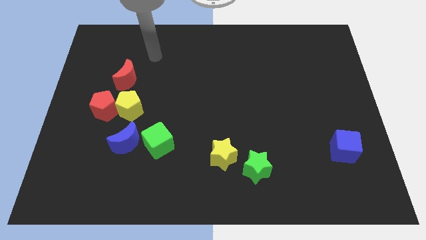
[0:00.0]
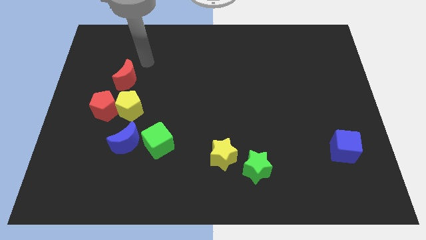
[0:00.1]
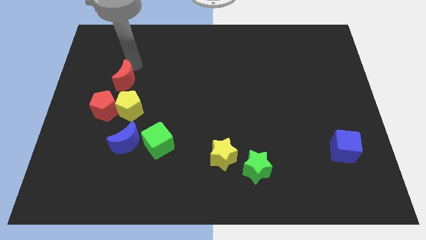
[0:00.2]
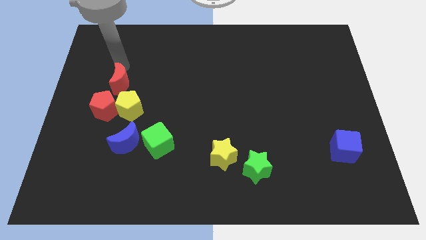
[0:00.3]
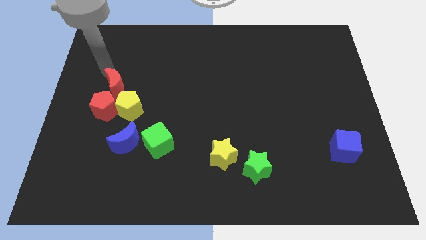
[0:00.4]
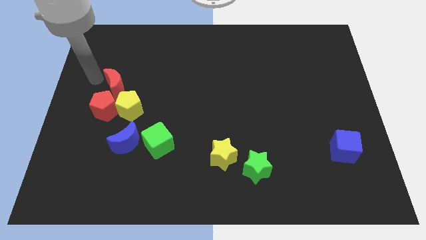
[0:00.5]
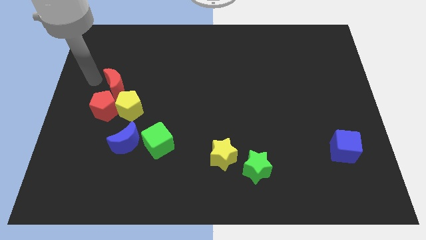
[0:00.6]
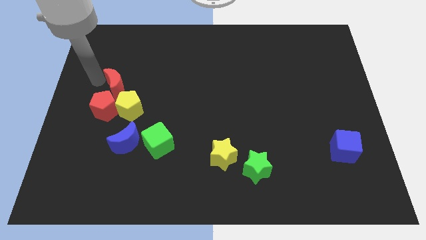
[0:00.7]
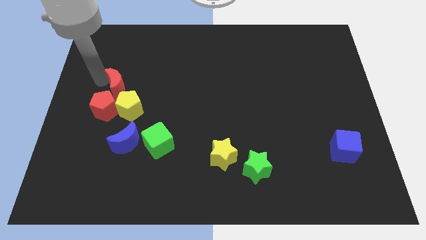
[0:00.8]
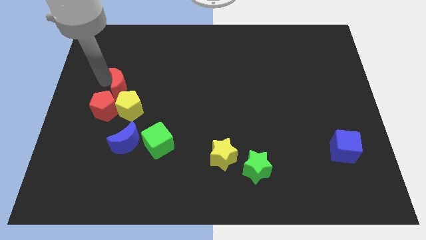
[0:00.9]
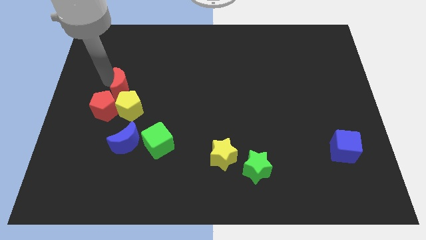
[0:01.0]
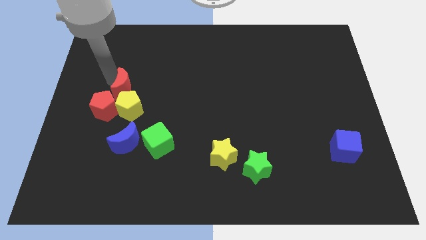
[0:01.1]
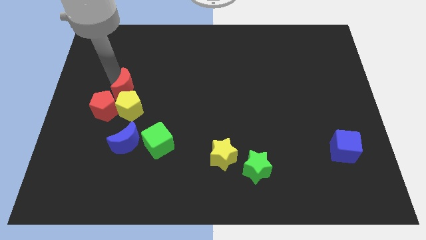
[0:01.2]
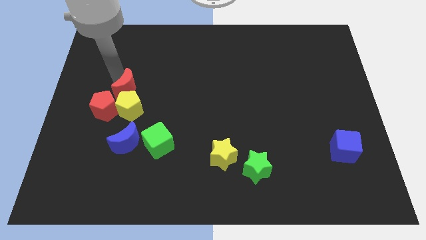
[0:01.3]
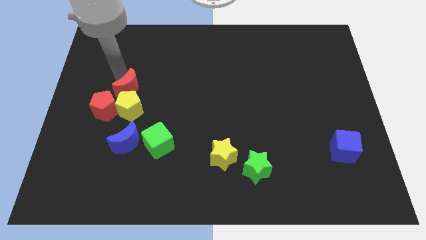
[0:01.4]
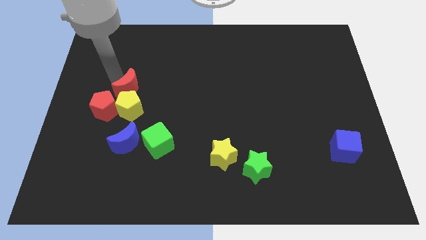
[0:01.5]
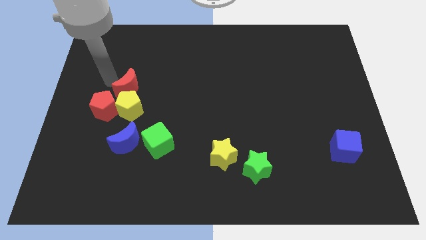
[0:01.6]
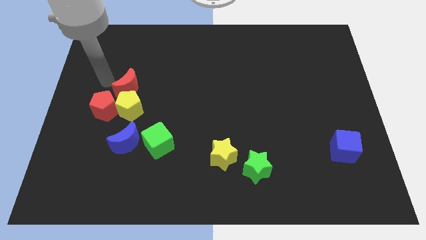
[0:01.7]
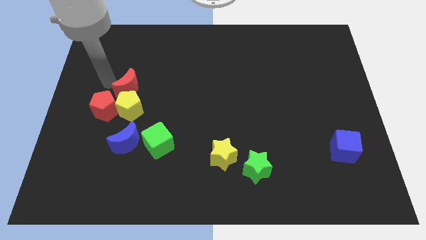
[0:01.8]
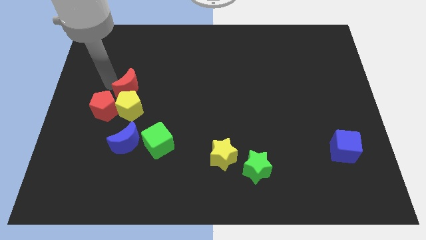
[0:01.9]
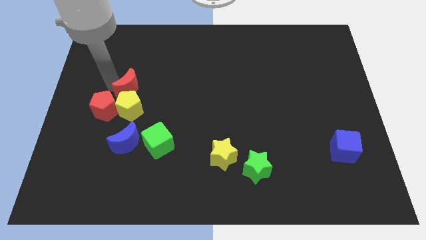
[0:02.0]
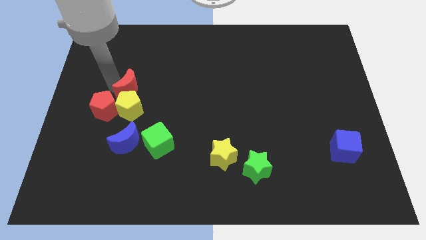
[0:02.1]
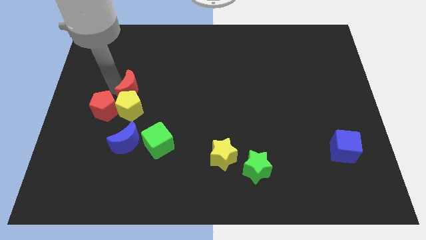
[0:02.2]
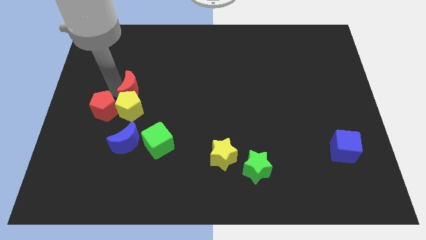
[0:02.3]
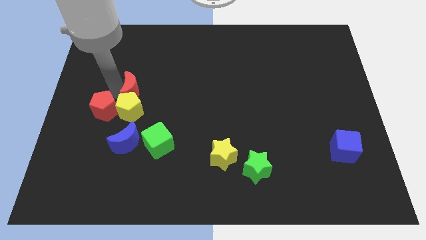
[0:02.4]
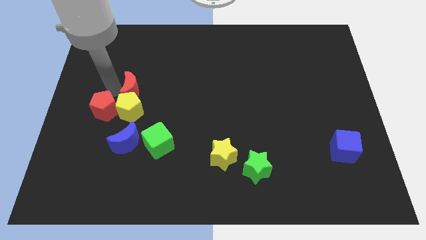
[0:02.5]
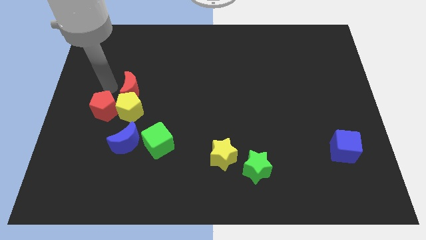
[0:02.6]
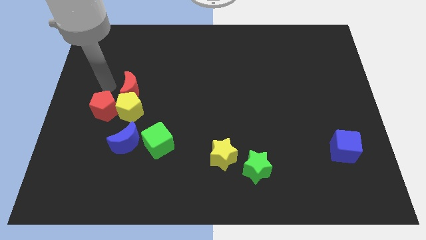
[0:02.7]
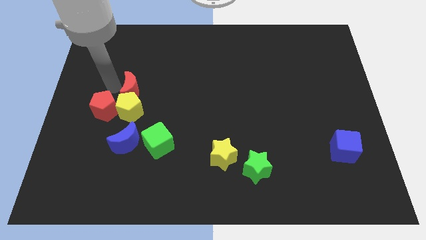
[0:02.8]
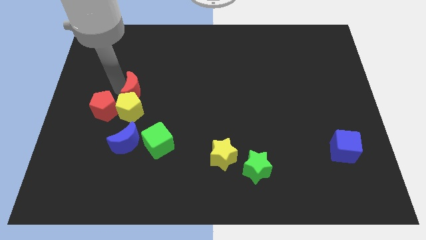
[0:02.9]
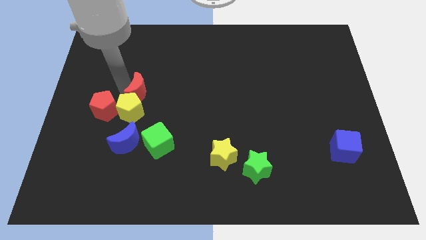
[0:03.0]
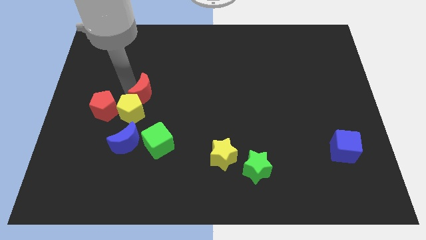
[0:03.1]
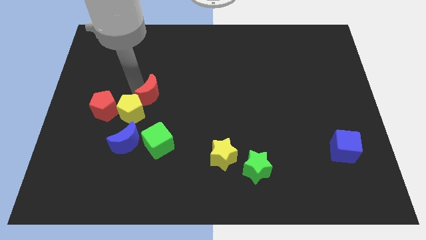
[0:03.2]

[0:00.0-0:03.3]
slightly push the red moon downwards and to the right

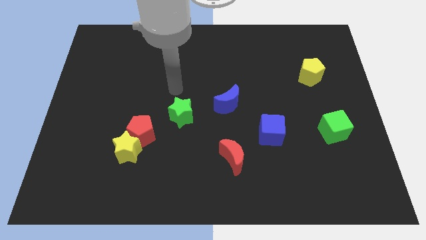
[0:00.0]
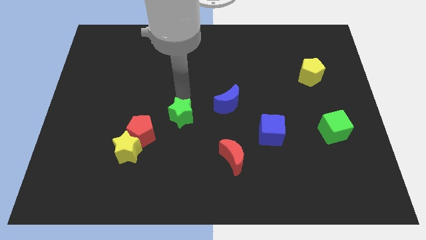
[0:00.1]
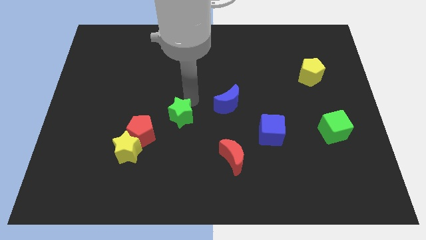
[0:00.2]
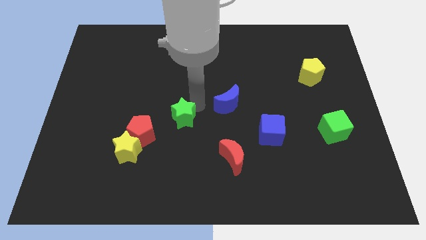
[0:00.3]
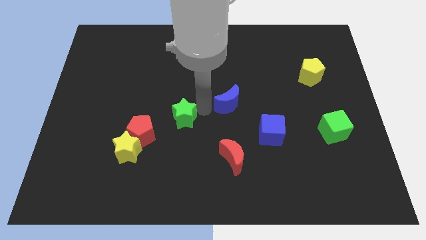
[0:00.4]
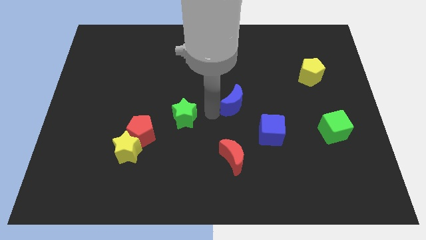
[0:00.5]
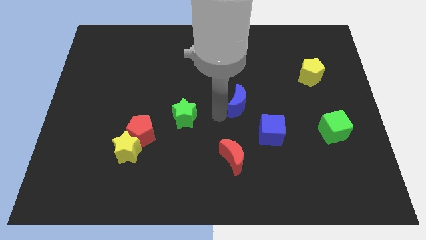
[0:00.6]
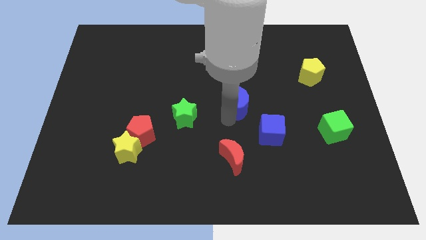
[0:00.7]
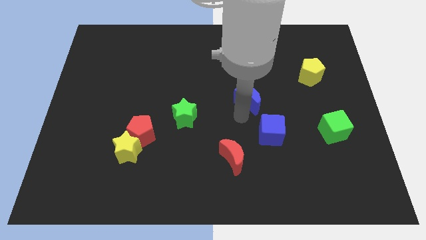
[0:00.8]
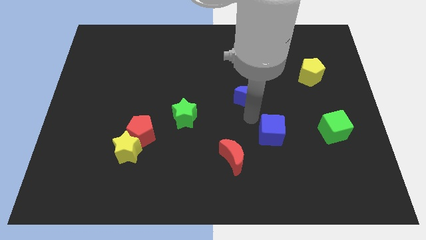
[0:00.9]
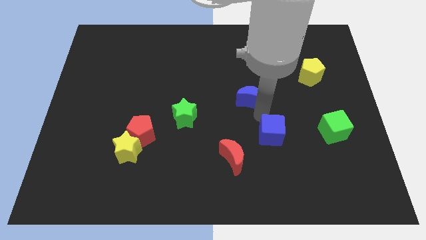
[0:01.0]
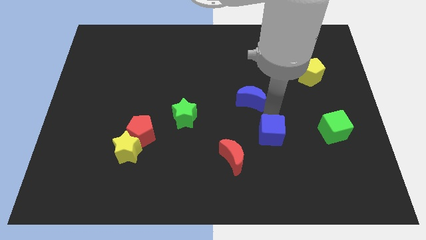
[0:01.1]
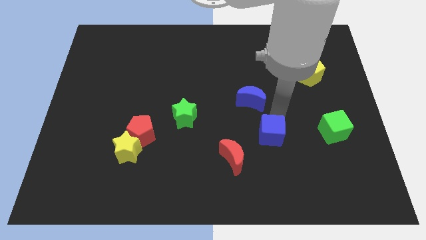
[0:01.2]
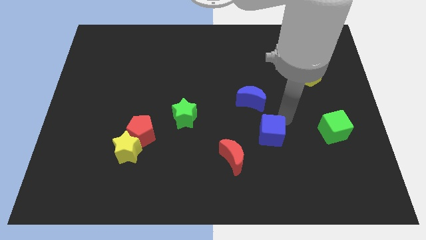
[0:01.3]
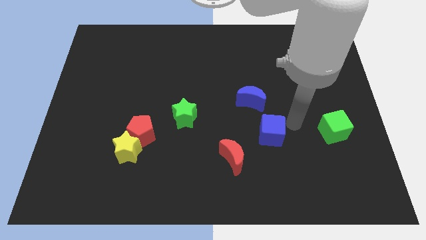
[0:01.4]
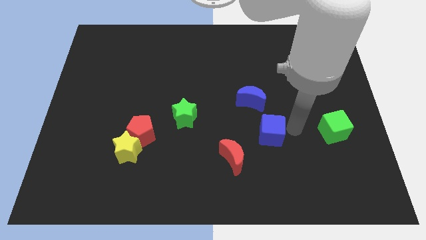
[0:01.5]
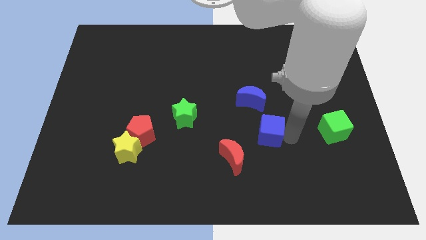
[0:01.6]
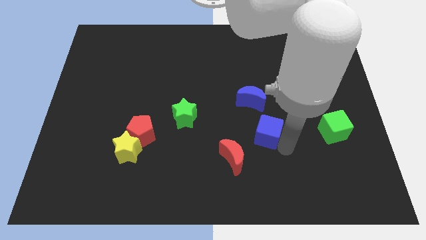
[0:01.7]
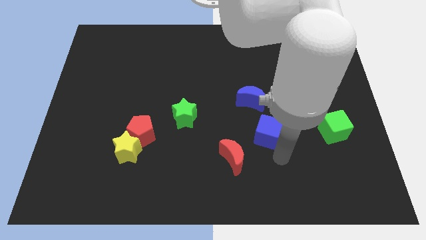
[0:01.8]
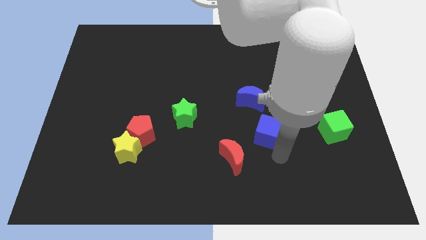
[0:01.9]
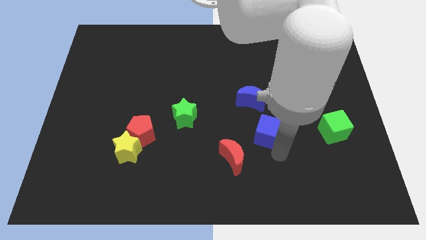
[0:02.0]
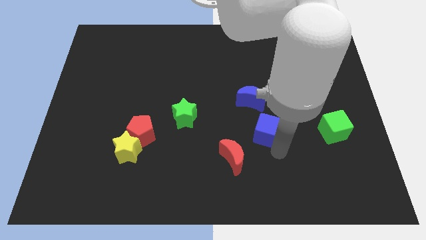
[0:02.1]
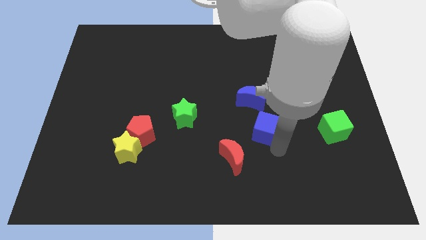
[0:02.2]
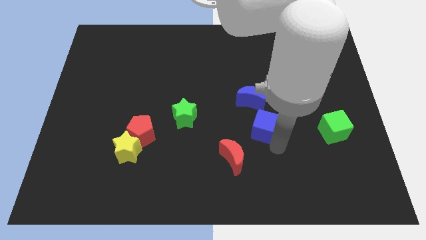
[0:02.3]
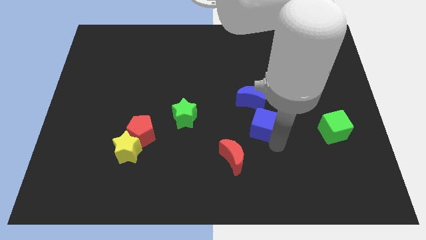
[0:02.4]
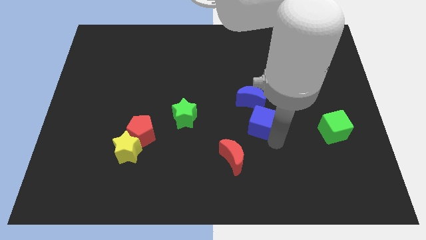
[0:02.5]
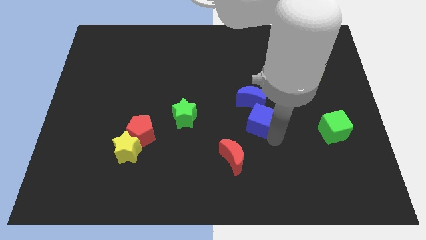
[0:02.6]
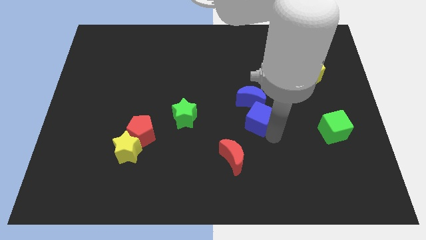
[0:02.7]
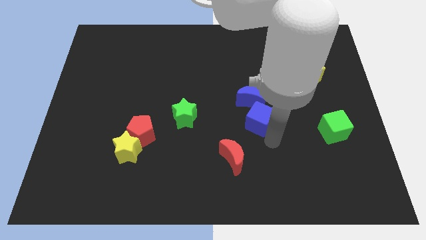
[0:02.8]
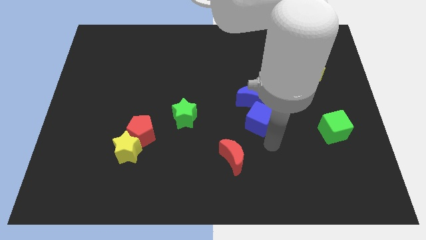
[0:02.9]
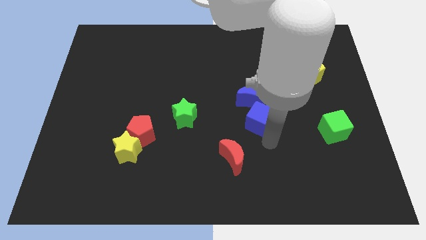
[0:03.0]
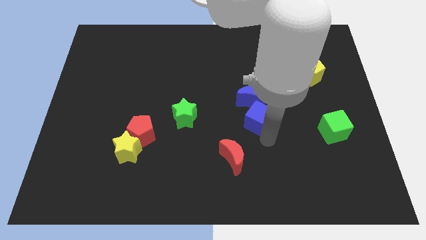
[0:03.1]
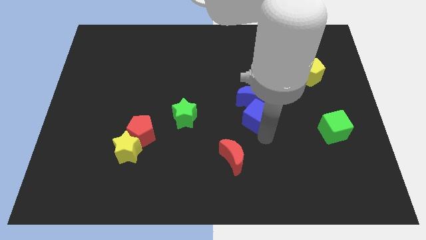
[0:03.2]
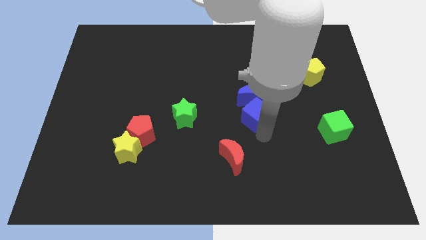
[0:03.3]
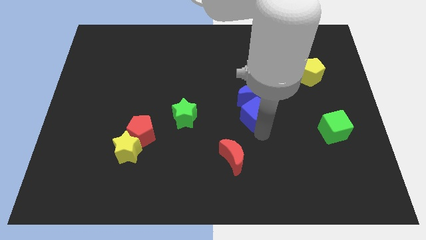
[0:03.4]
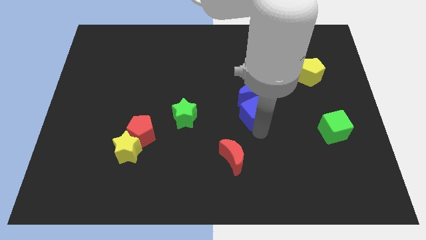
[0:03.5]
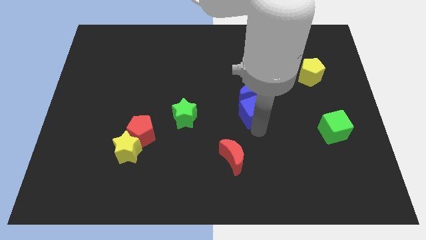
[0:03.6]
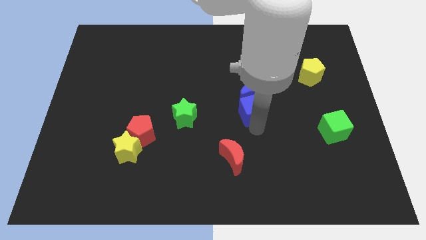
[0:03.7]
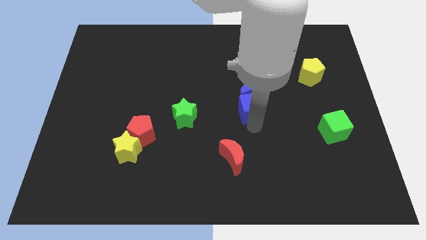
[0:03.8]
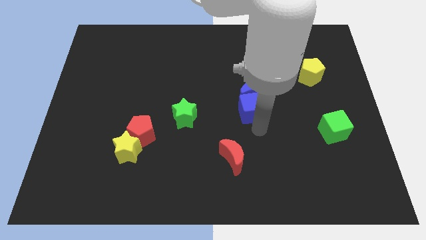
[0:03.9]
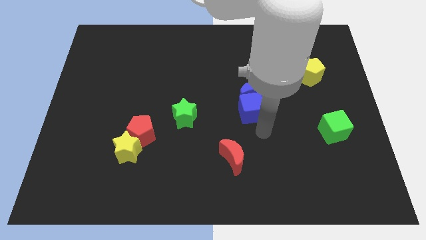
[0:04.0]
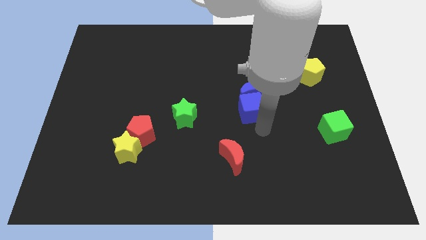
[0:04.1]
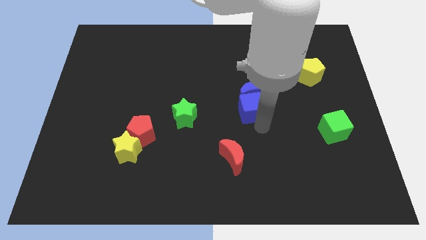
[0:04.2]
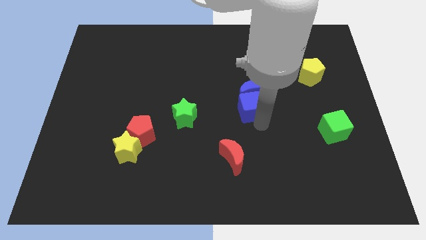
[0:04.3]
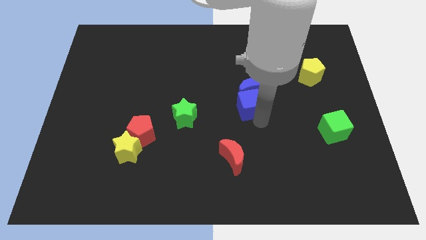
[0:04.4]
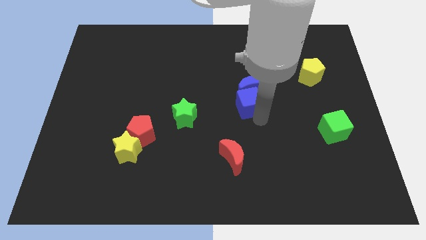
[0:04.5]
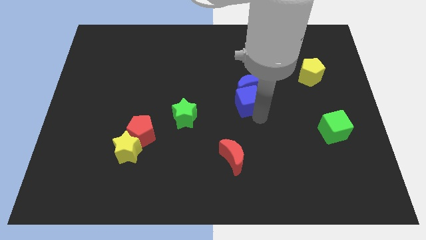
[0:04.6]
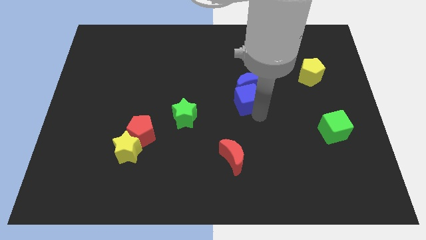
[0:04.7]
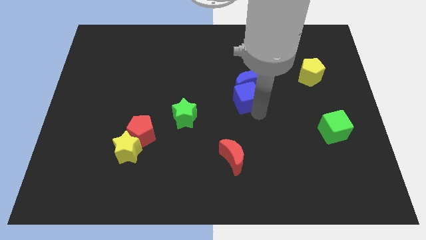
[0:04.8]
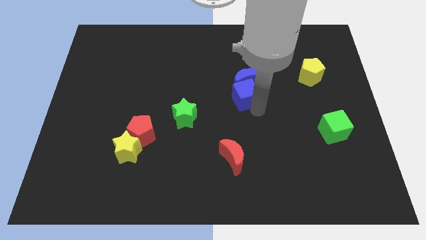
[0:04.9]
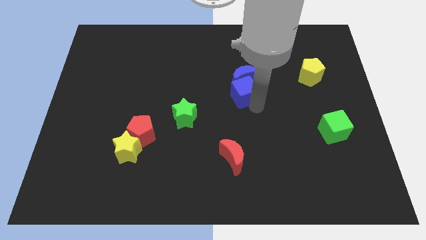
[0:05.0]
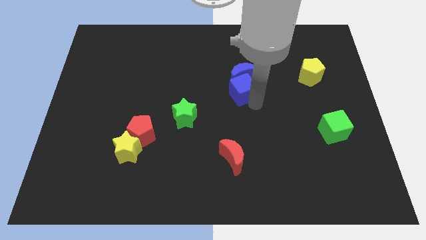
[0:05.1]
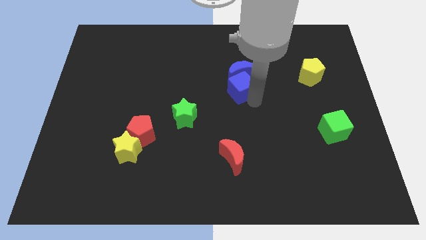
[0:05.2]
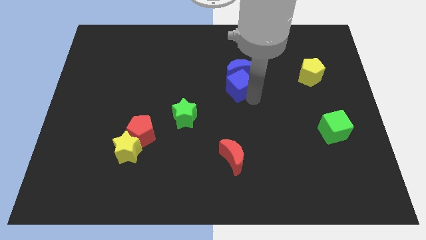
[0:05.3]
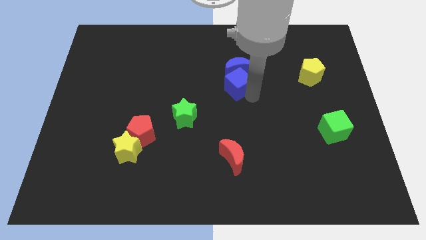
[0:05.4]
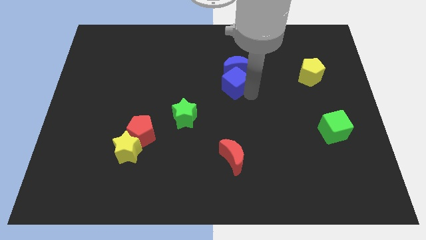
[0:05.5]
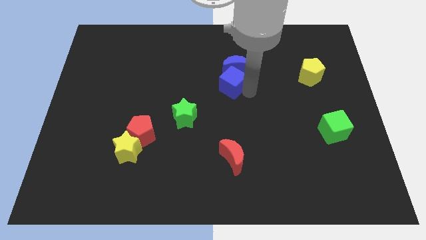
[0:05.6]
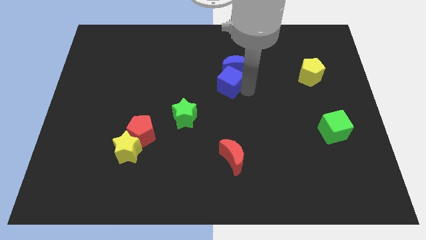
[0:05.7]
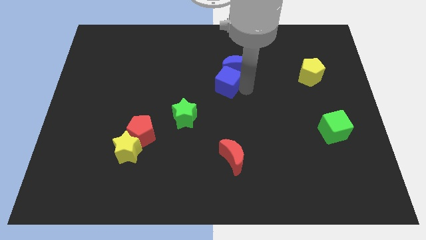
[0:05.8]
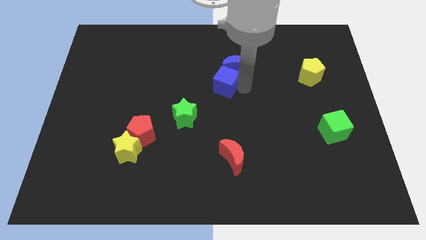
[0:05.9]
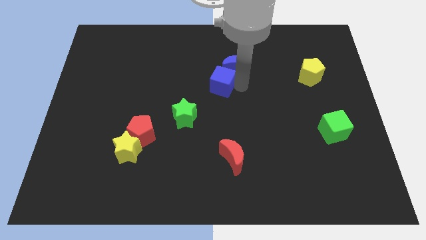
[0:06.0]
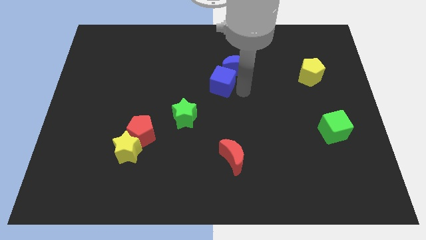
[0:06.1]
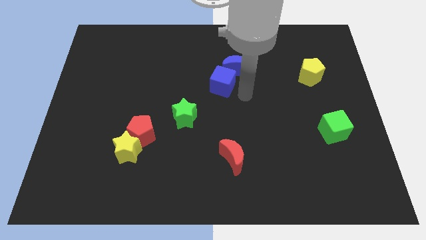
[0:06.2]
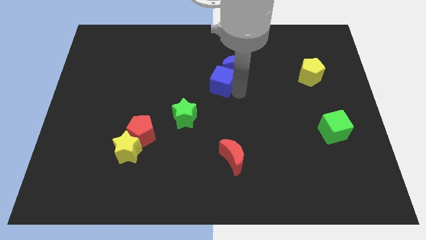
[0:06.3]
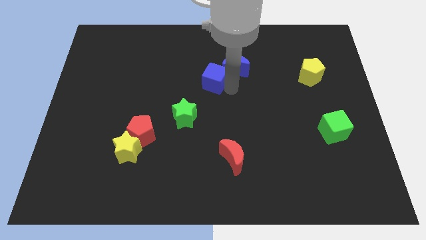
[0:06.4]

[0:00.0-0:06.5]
move the blue cube up and then to the left
